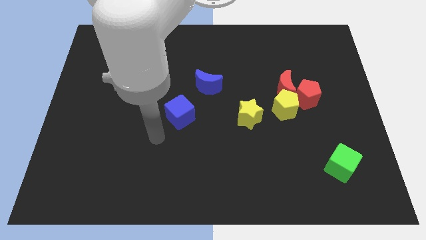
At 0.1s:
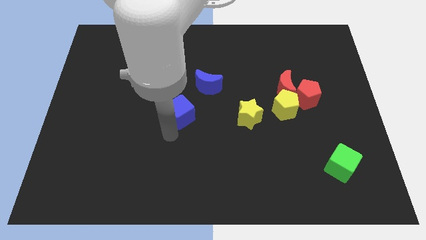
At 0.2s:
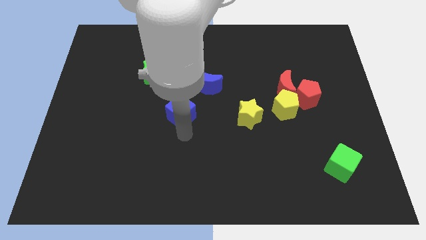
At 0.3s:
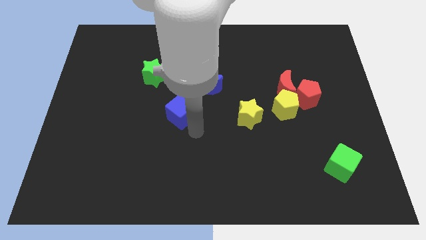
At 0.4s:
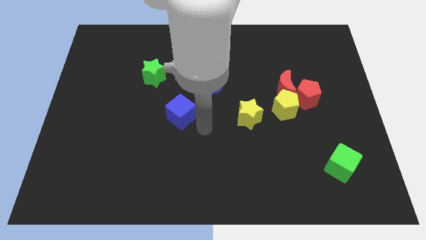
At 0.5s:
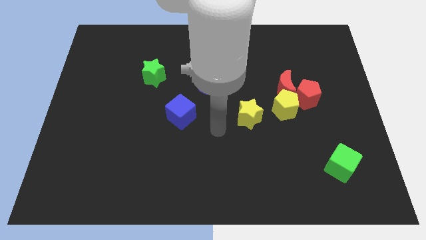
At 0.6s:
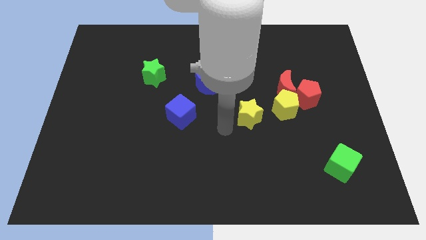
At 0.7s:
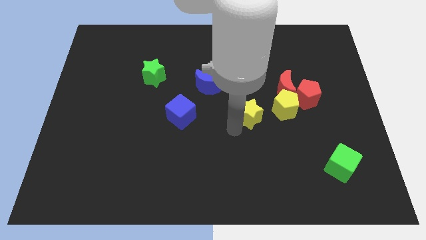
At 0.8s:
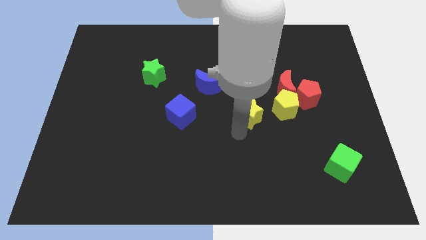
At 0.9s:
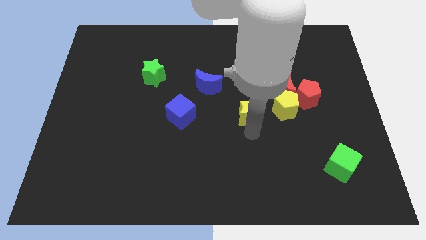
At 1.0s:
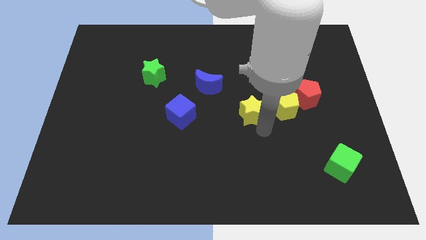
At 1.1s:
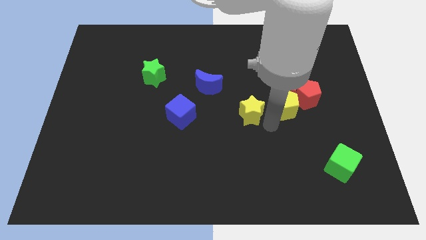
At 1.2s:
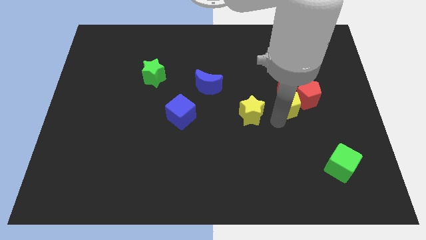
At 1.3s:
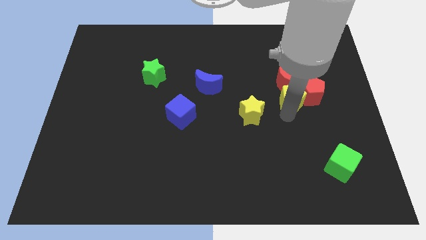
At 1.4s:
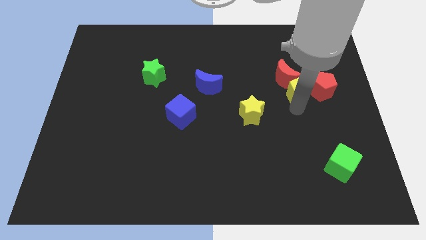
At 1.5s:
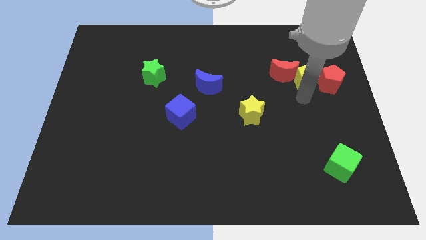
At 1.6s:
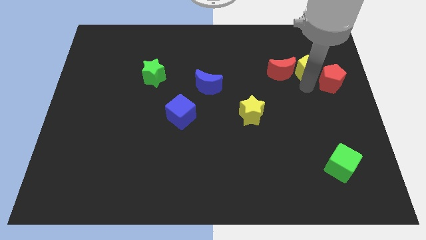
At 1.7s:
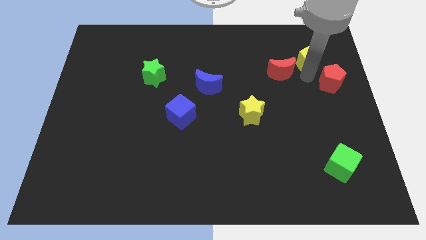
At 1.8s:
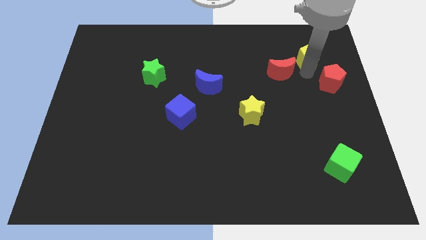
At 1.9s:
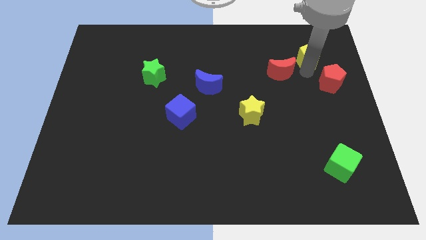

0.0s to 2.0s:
move the red moon away from the red pentagon and yellow pentagon

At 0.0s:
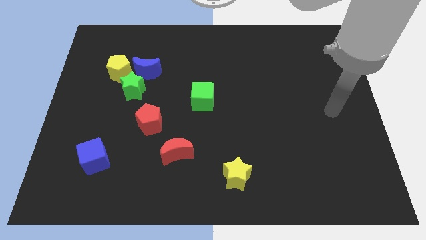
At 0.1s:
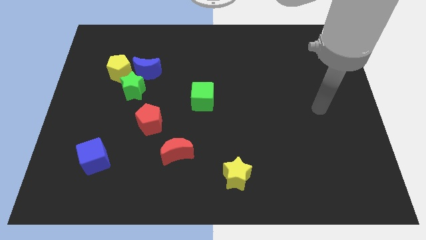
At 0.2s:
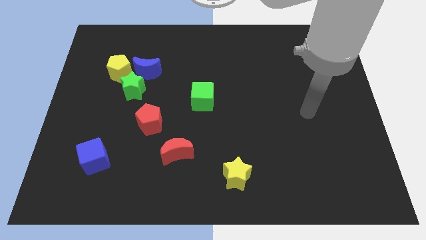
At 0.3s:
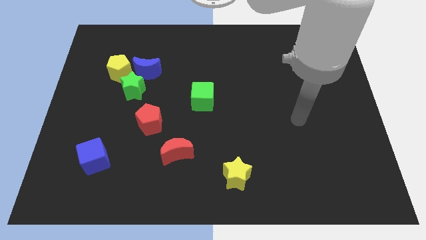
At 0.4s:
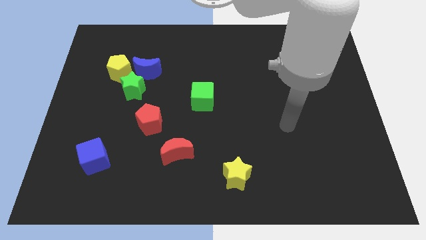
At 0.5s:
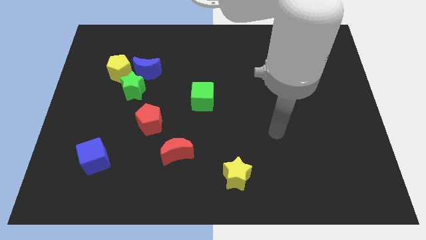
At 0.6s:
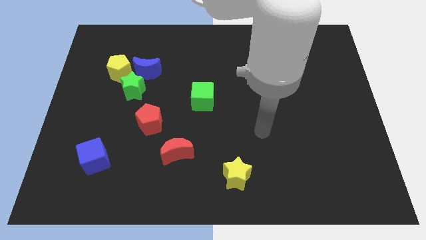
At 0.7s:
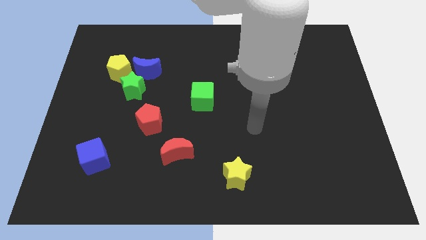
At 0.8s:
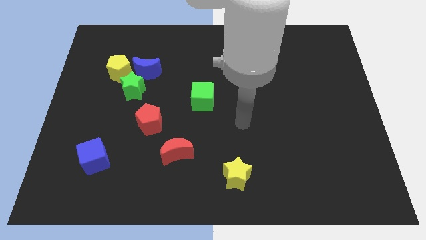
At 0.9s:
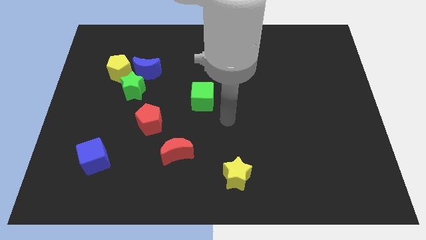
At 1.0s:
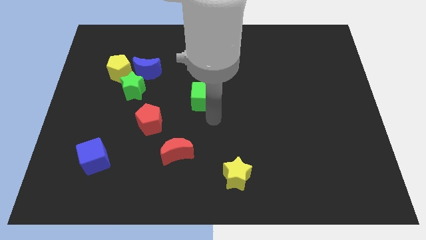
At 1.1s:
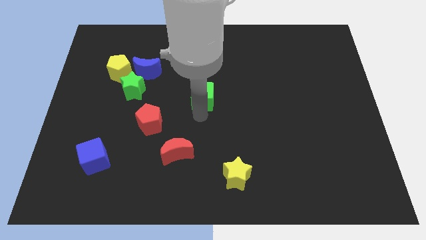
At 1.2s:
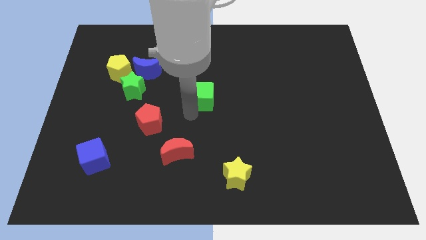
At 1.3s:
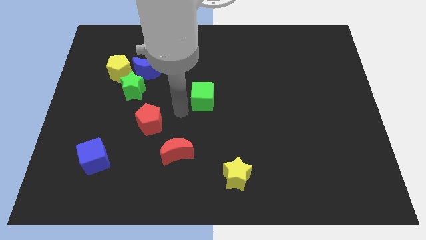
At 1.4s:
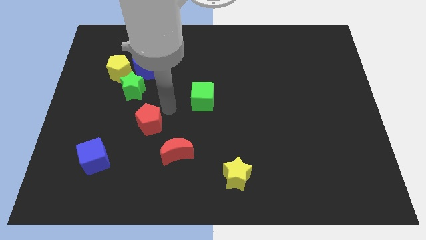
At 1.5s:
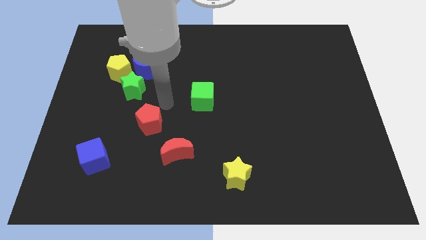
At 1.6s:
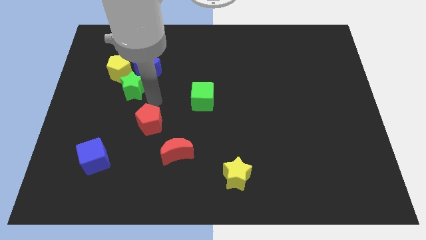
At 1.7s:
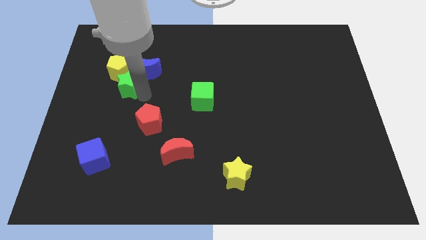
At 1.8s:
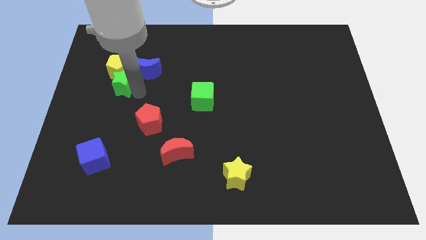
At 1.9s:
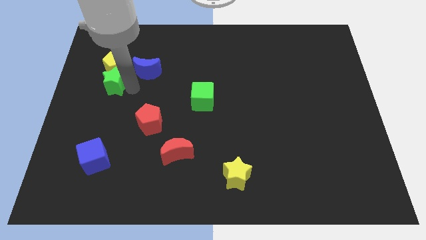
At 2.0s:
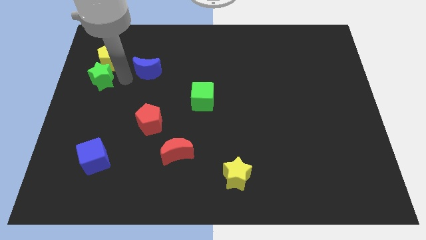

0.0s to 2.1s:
separate the blue moon from the green star and yellow pentagon

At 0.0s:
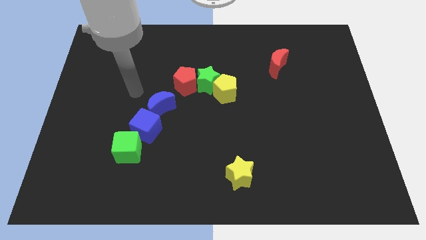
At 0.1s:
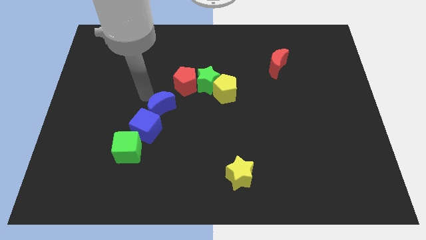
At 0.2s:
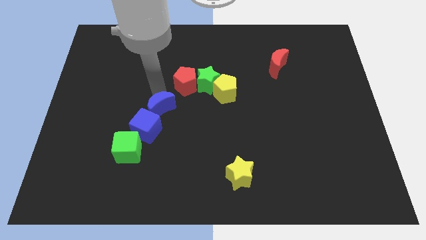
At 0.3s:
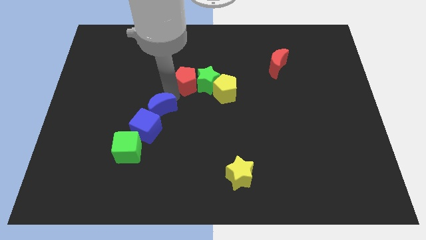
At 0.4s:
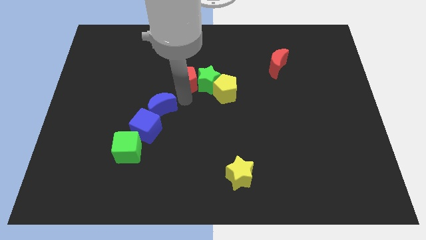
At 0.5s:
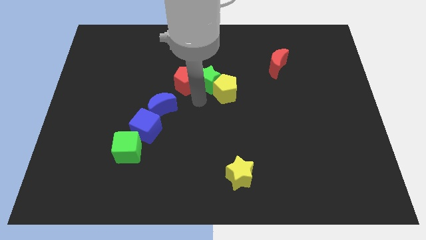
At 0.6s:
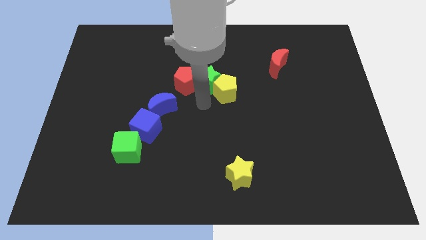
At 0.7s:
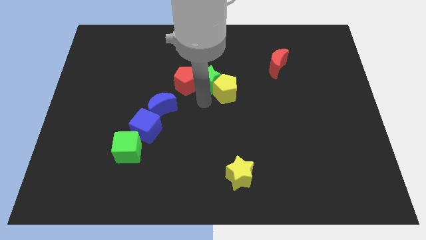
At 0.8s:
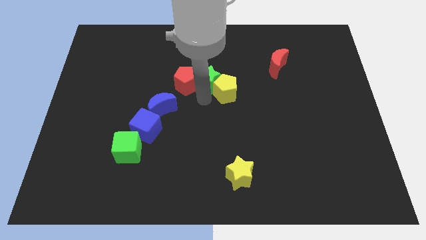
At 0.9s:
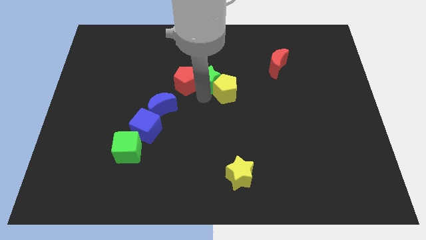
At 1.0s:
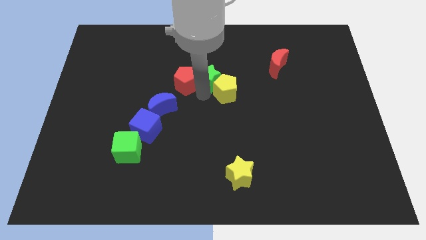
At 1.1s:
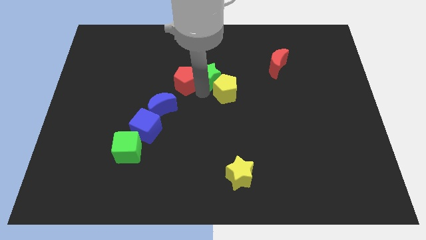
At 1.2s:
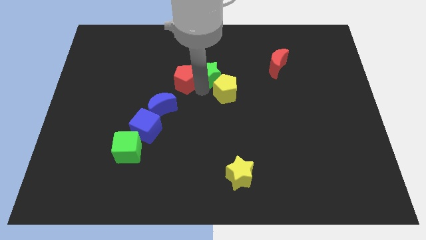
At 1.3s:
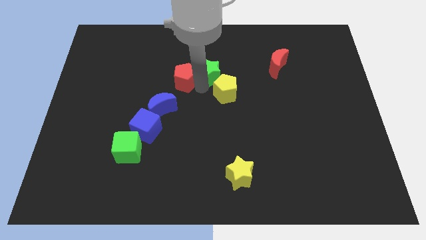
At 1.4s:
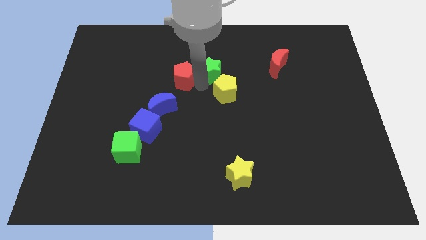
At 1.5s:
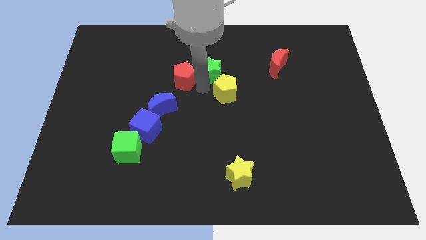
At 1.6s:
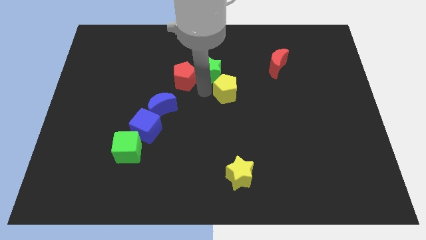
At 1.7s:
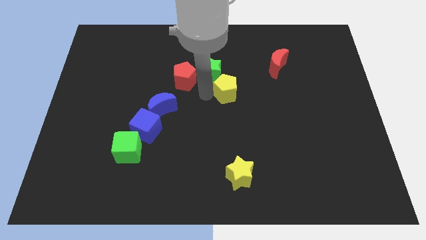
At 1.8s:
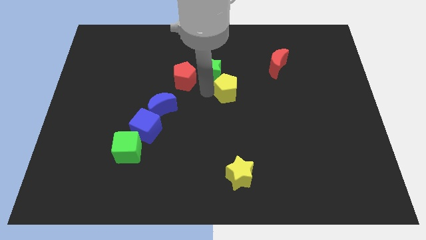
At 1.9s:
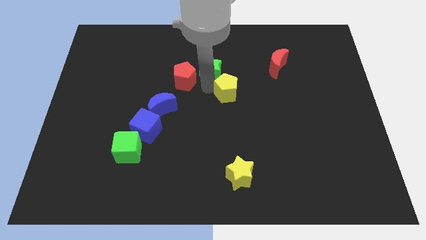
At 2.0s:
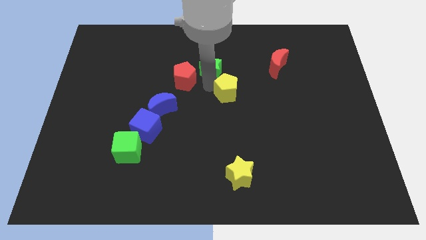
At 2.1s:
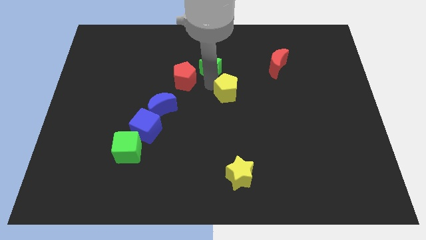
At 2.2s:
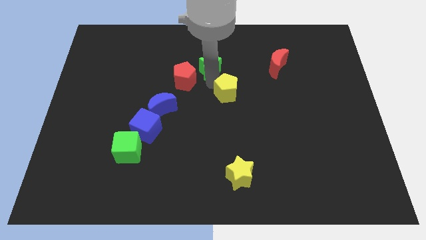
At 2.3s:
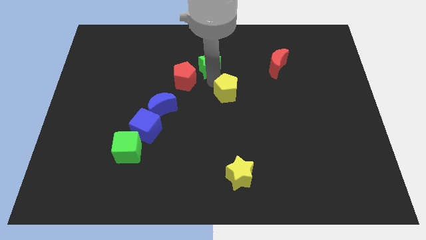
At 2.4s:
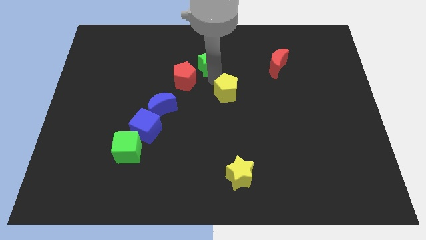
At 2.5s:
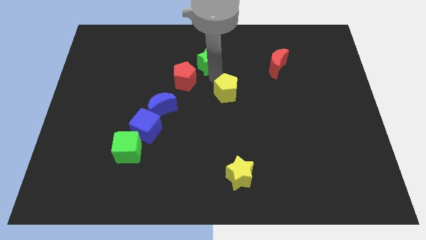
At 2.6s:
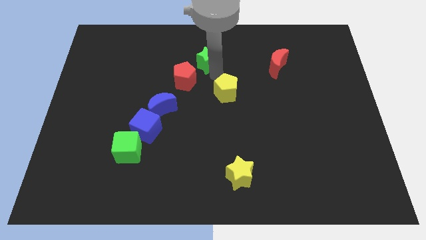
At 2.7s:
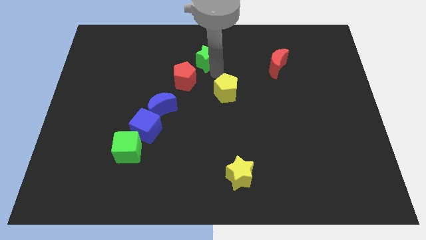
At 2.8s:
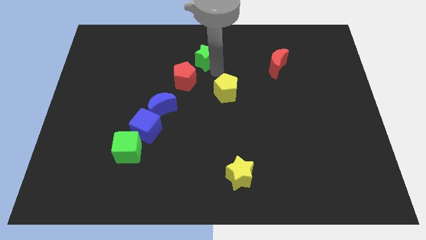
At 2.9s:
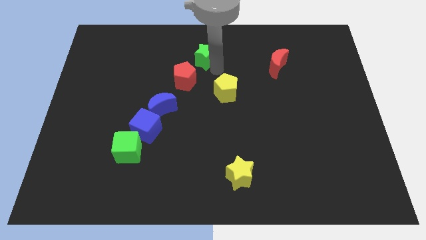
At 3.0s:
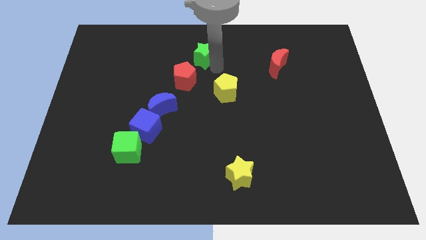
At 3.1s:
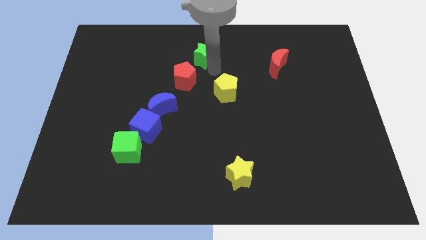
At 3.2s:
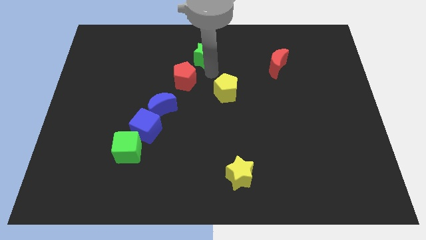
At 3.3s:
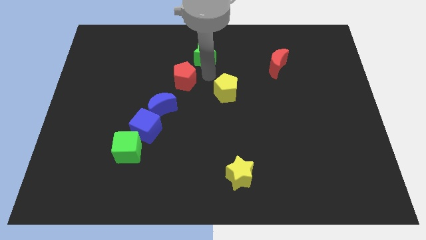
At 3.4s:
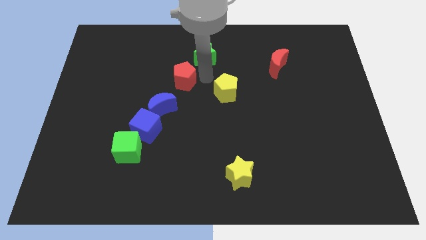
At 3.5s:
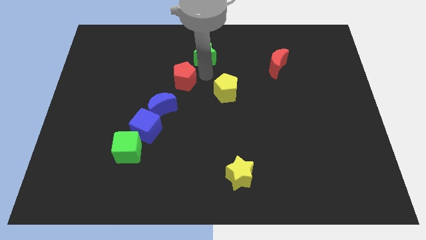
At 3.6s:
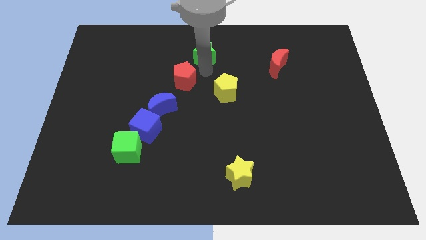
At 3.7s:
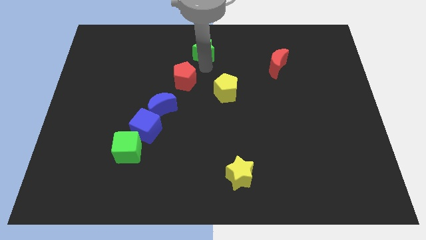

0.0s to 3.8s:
separate the green star from the yellow pentagon and red pentagon

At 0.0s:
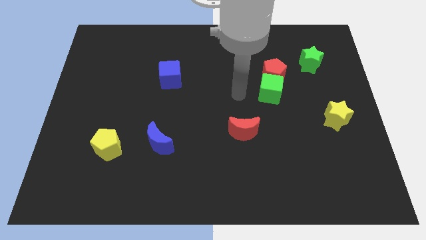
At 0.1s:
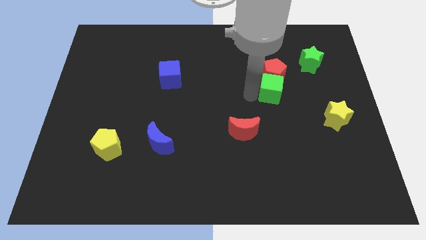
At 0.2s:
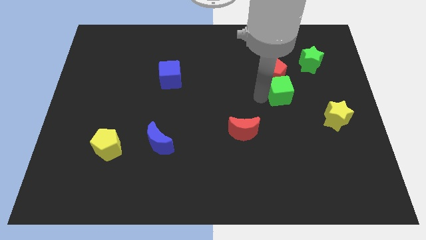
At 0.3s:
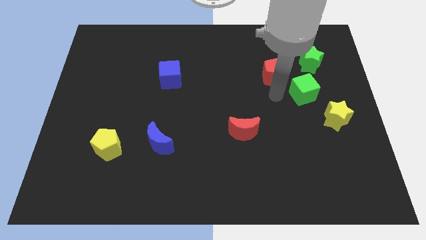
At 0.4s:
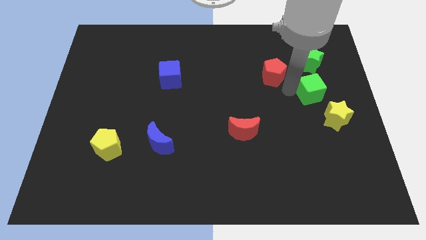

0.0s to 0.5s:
move the red pentagon away from the green cube

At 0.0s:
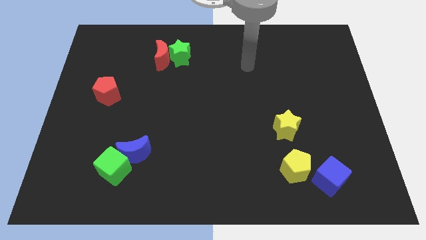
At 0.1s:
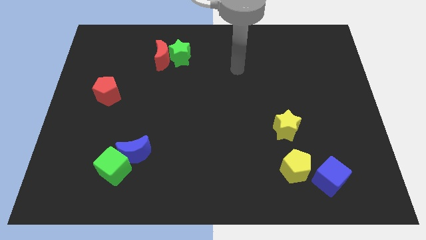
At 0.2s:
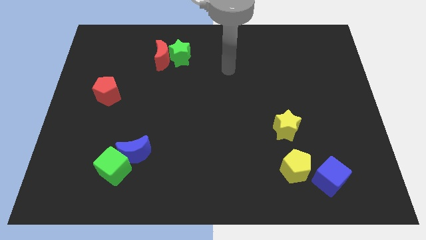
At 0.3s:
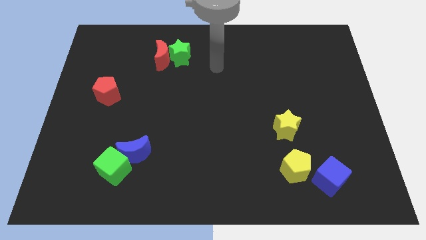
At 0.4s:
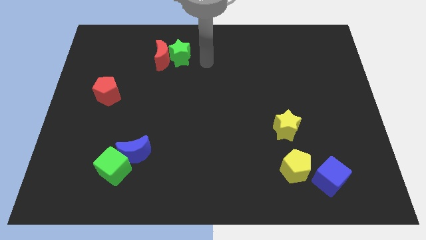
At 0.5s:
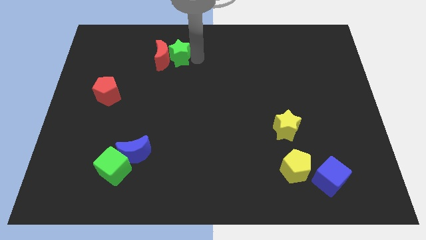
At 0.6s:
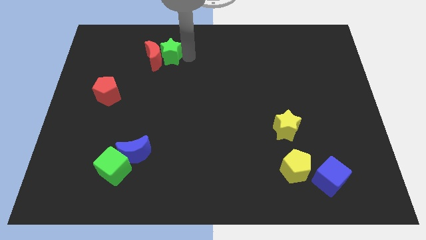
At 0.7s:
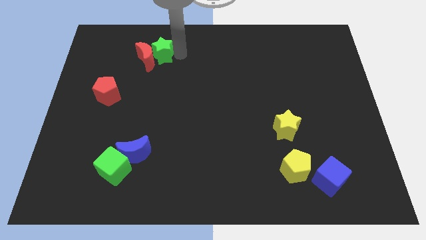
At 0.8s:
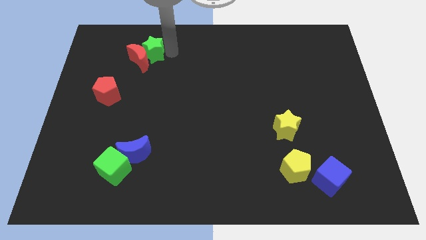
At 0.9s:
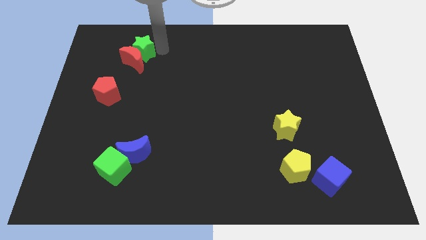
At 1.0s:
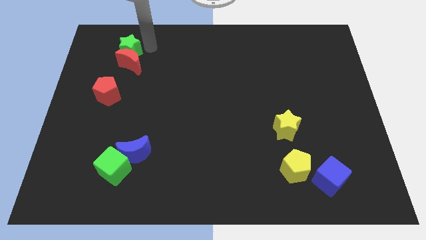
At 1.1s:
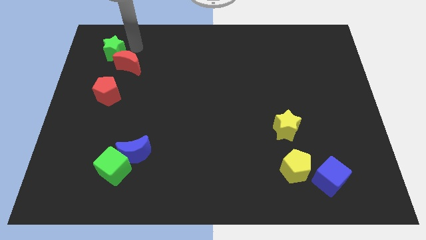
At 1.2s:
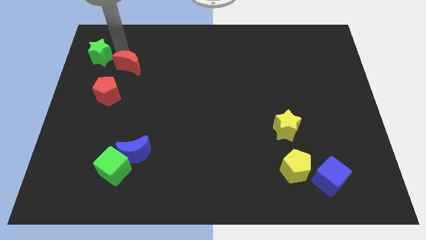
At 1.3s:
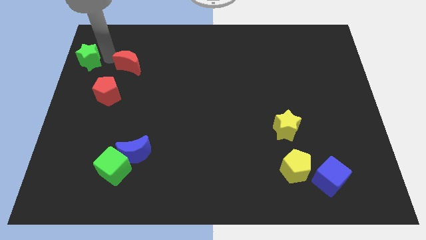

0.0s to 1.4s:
move the red moon away from the green star
